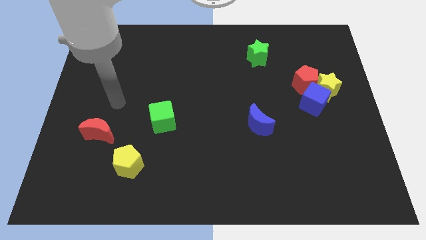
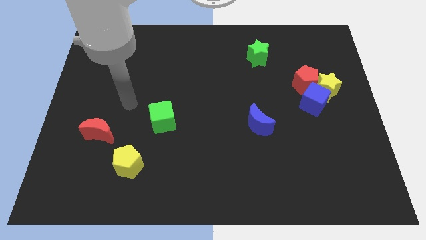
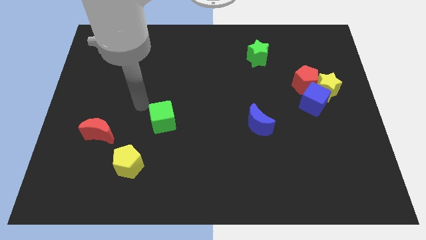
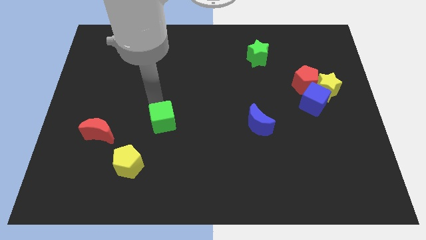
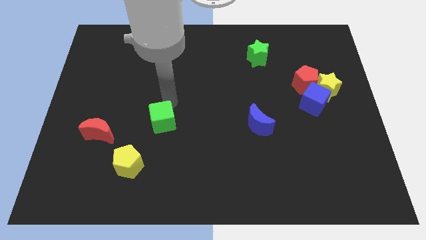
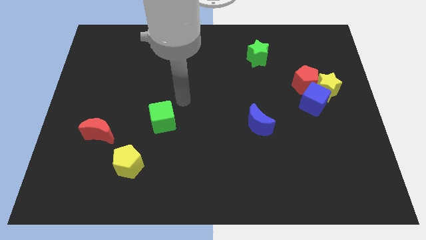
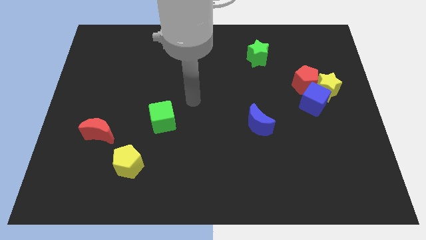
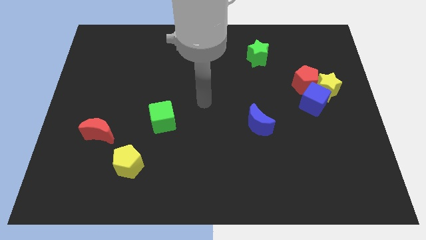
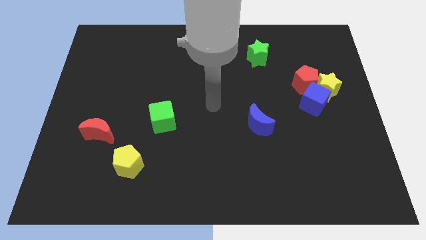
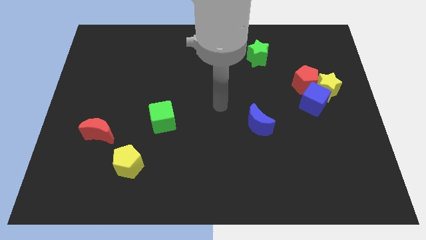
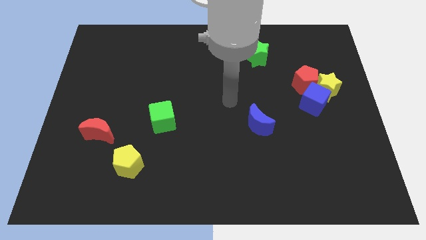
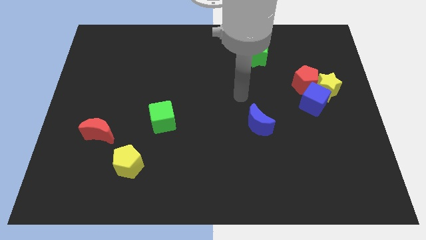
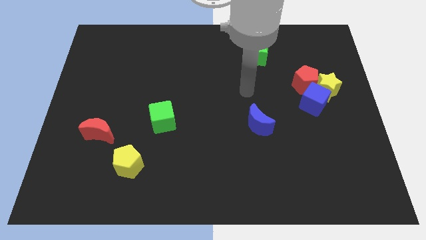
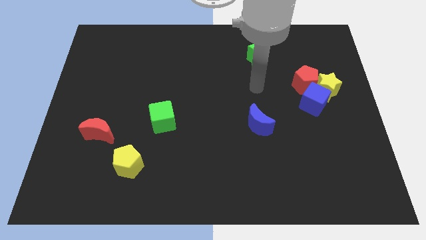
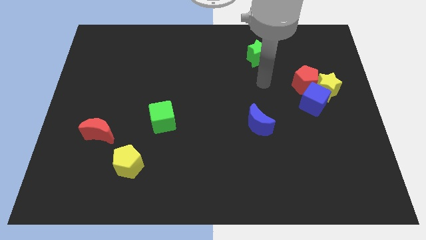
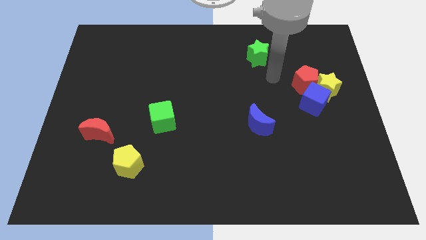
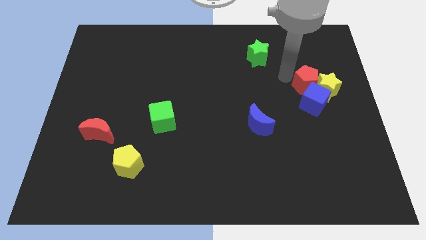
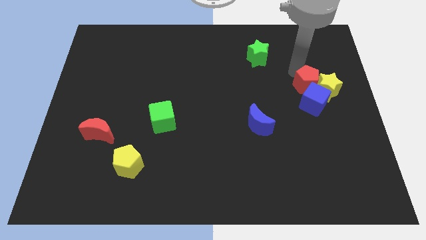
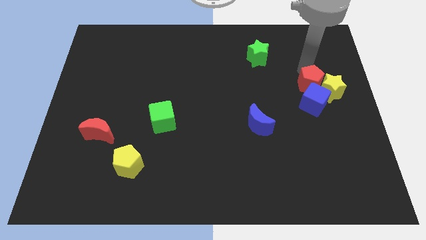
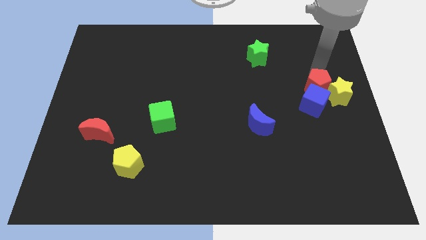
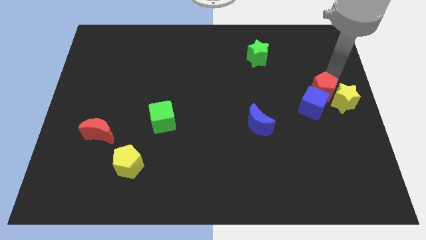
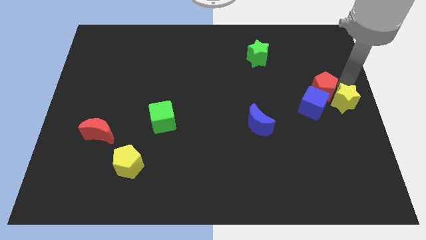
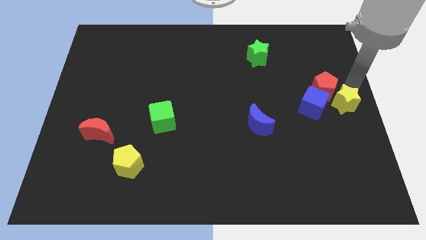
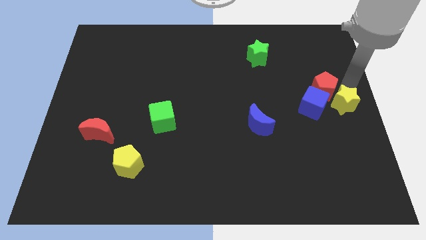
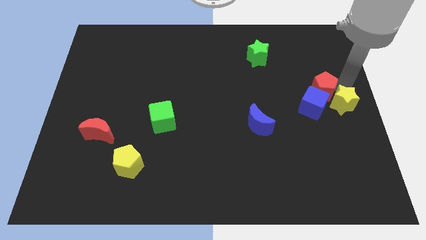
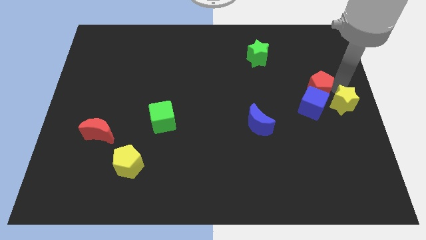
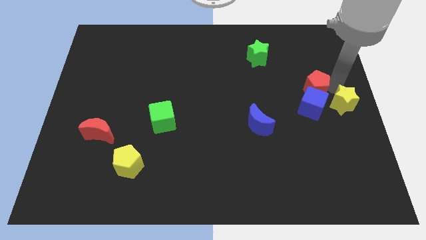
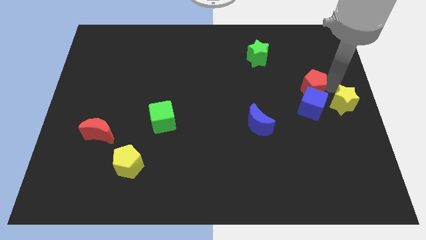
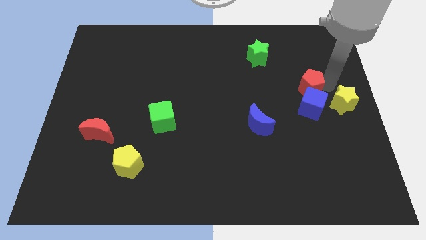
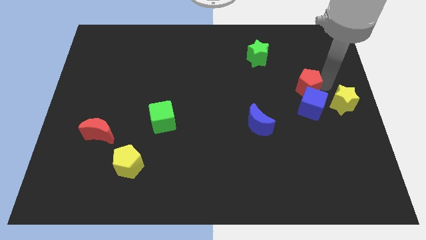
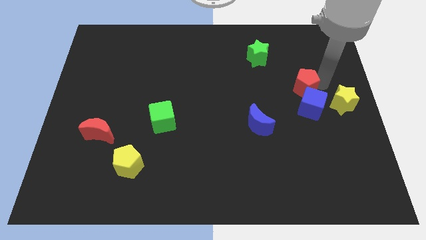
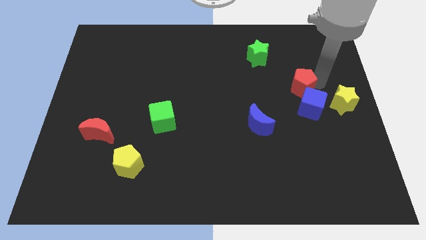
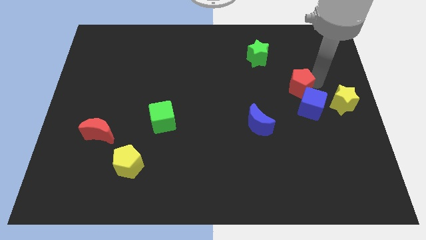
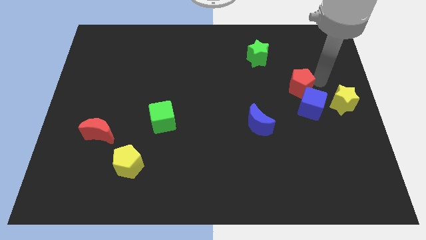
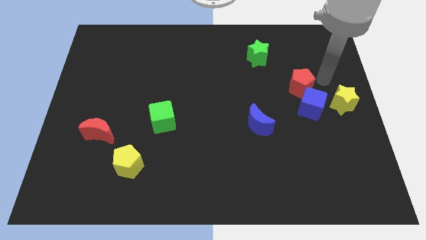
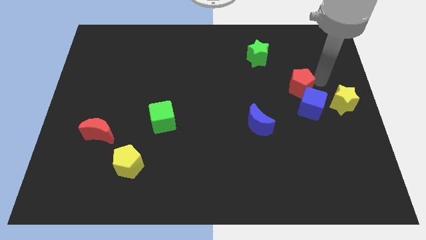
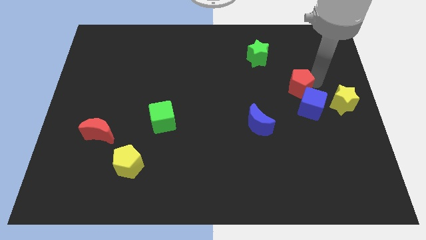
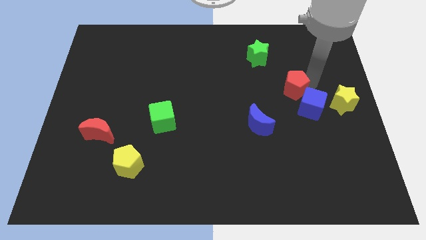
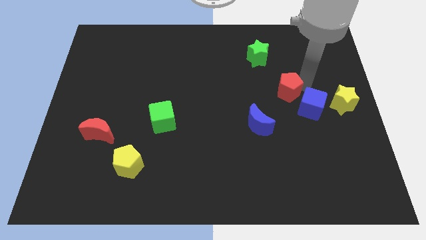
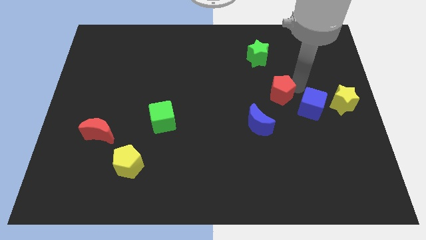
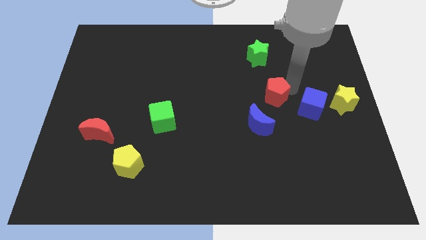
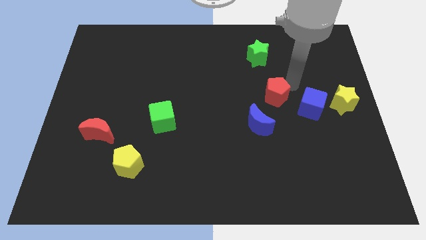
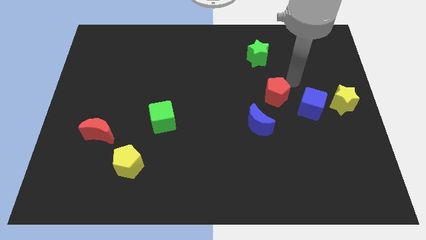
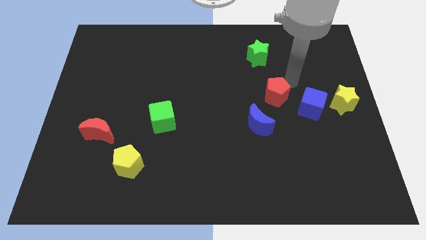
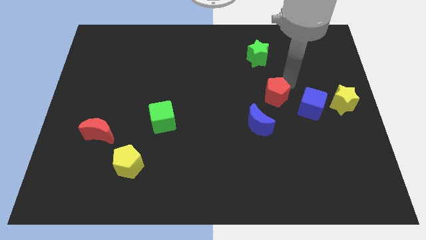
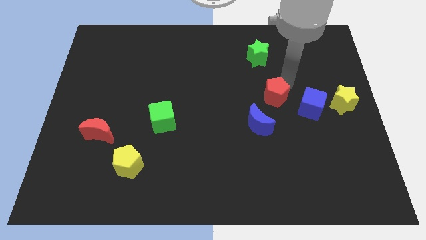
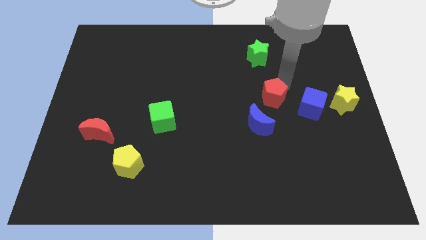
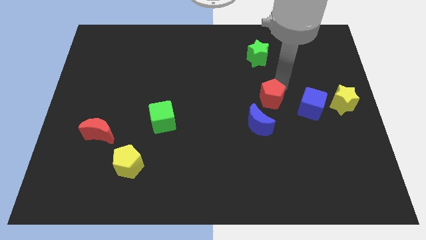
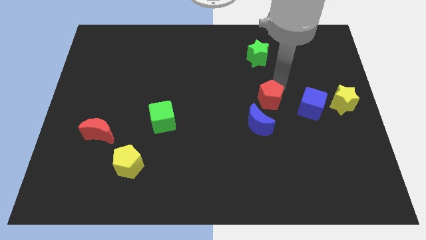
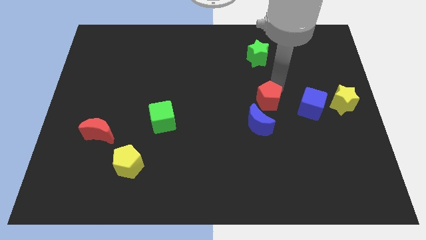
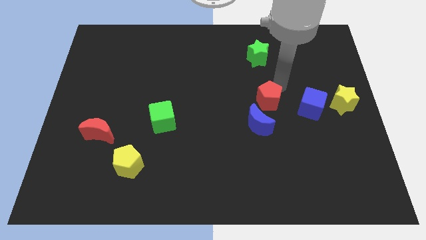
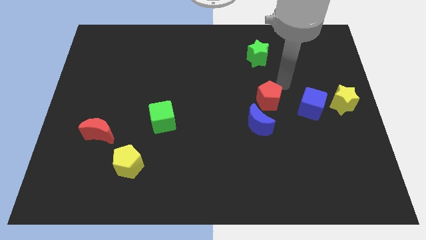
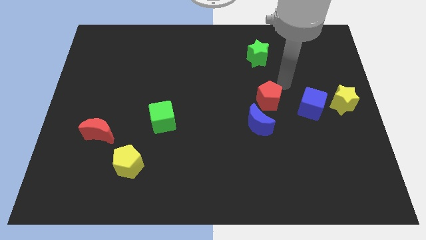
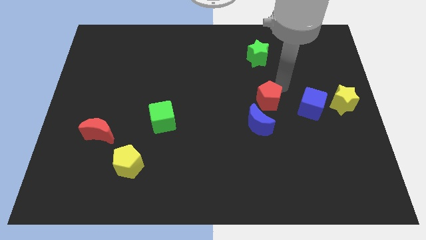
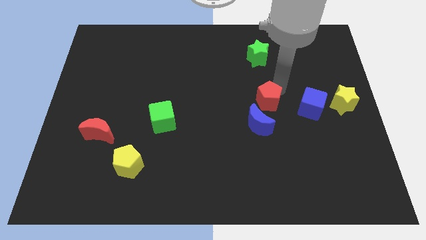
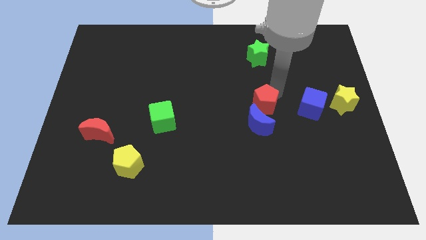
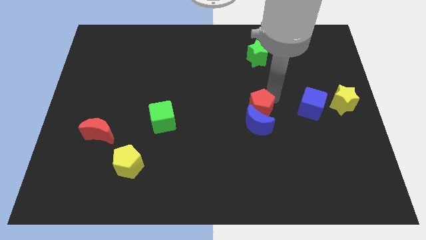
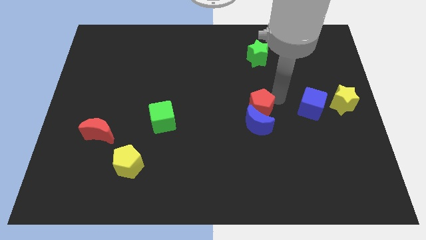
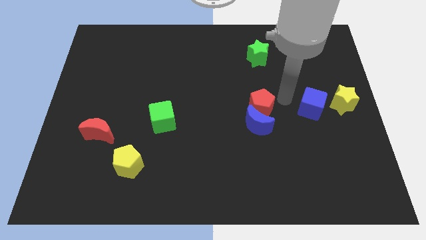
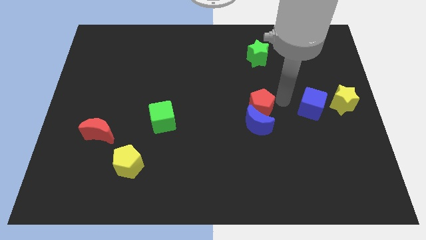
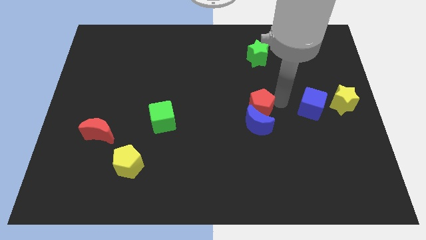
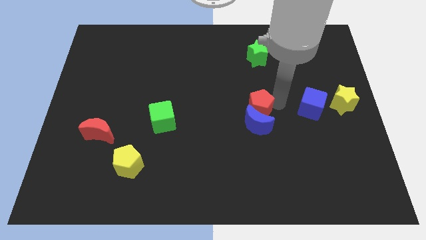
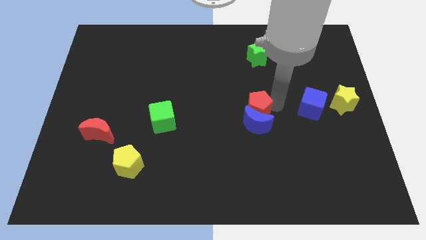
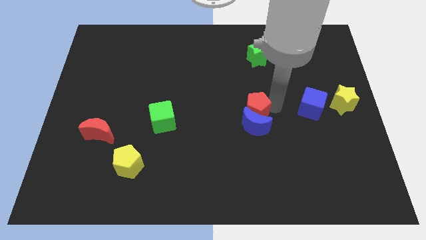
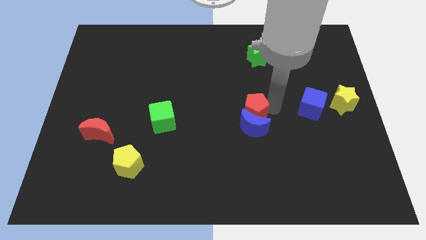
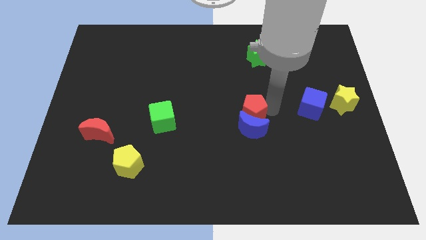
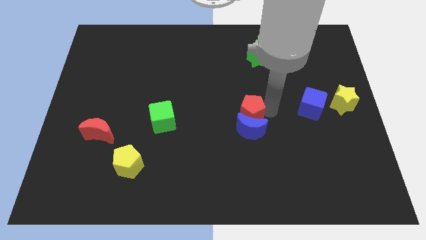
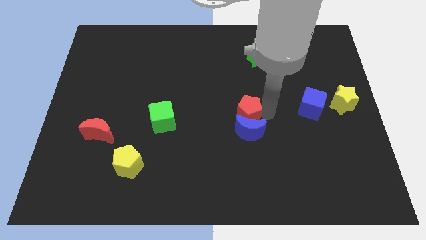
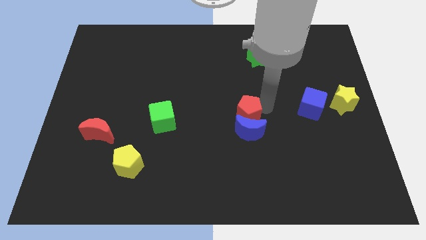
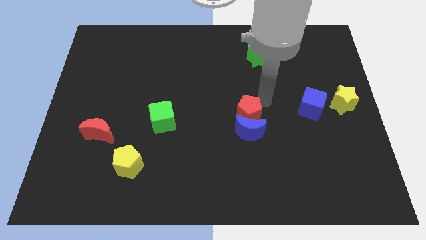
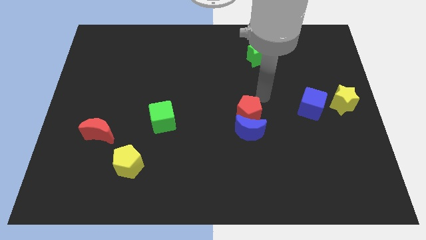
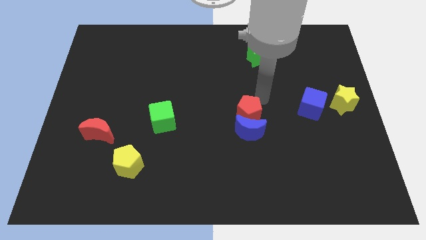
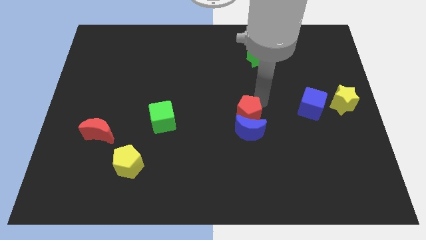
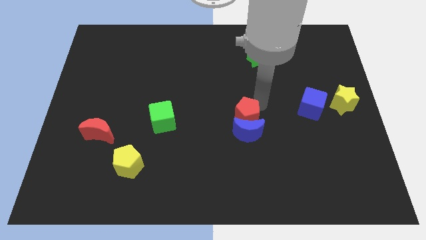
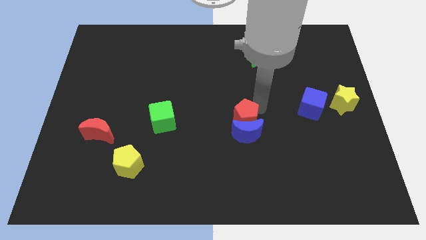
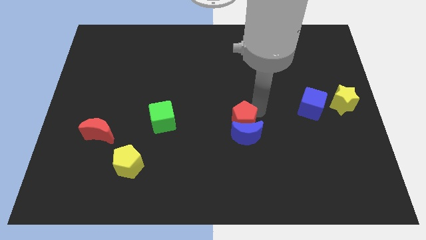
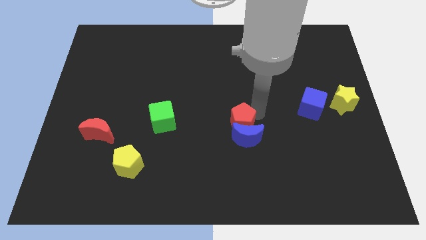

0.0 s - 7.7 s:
slide the red pentagon down and left

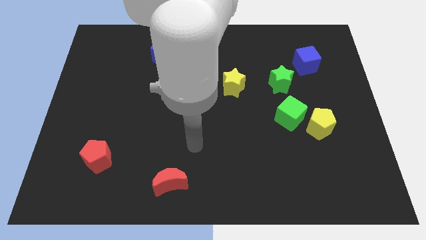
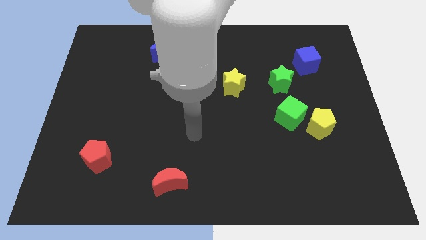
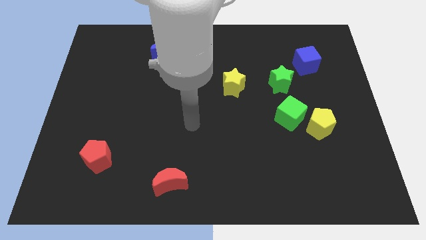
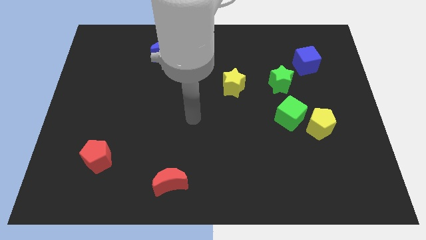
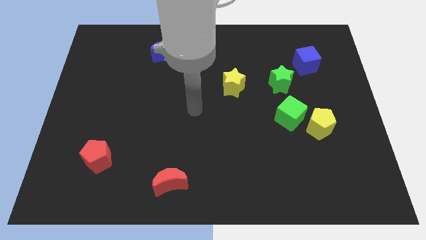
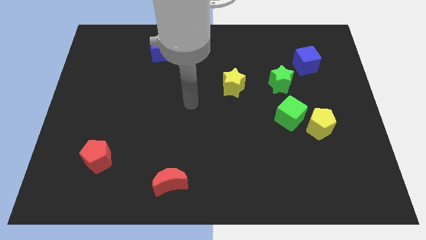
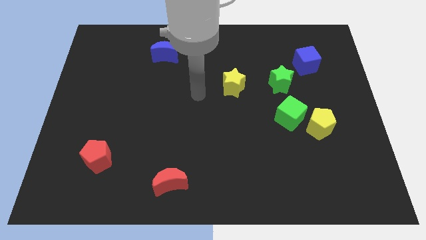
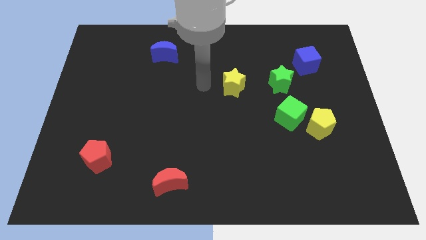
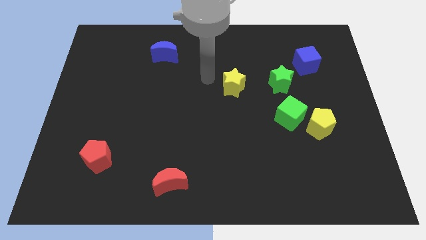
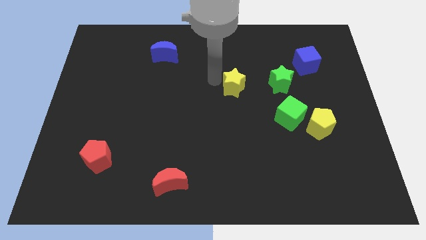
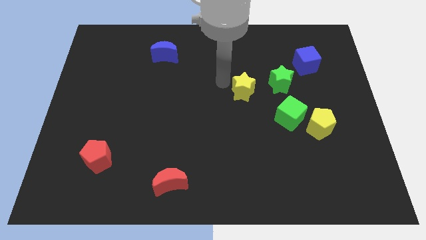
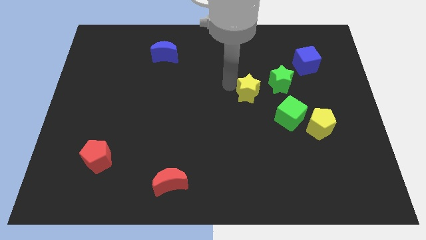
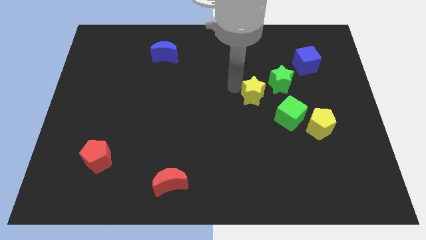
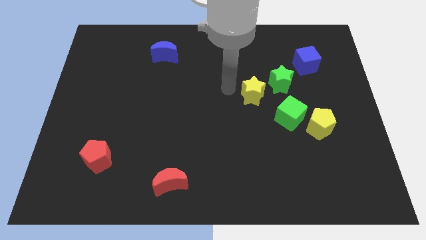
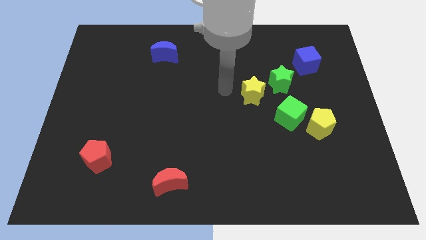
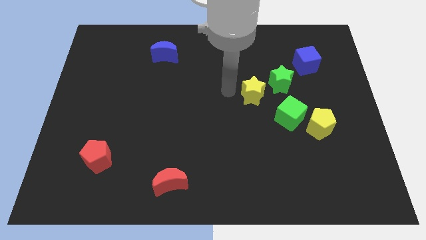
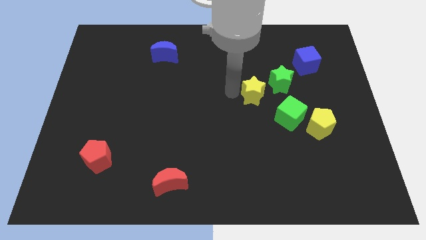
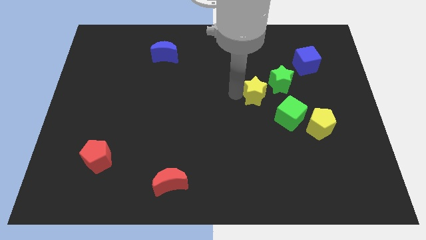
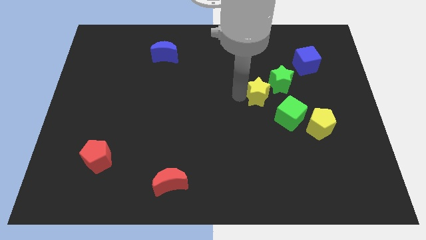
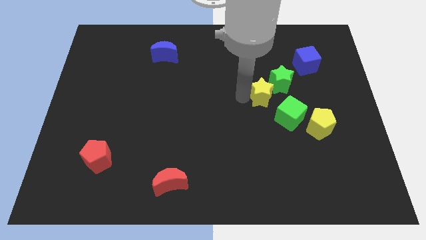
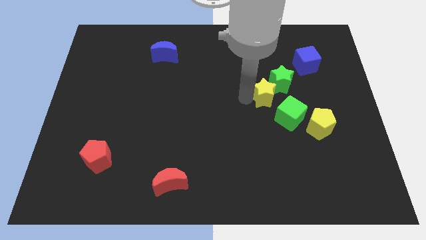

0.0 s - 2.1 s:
move the yellow star right a little
